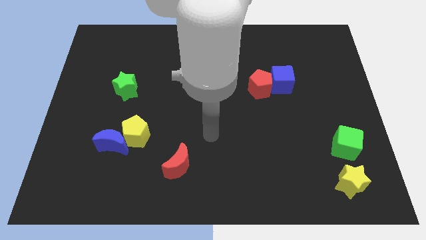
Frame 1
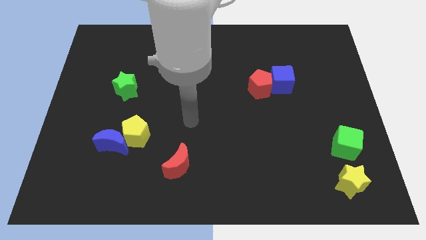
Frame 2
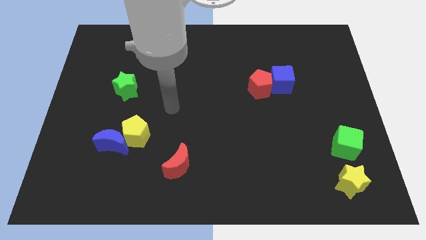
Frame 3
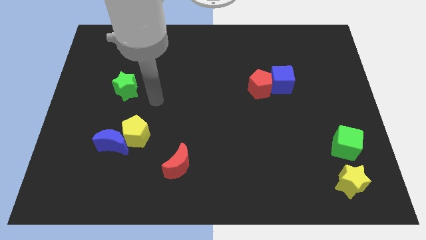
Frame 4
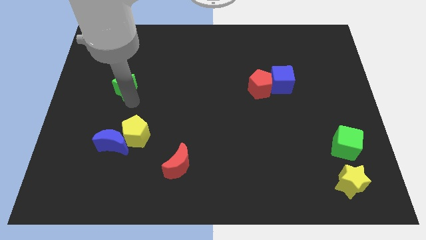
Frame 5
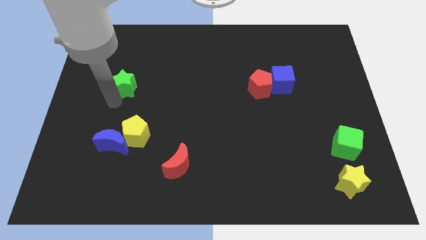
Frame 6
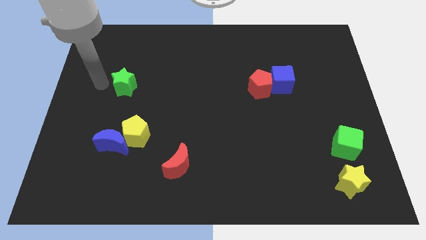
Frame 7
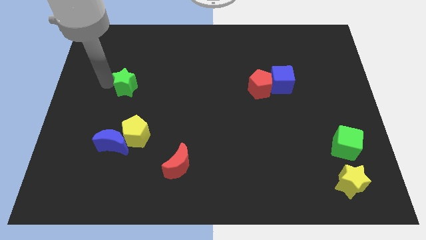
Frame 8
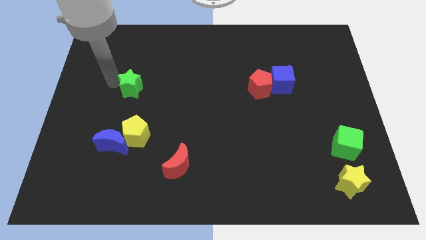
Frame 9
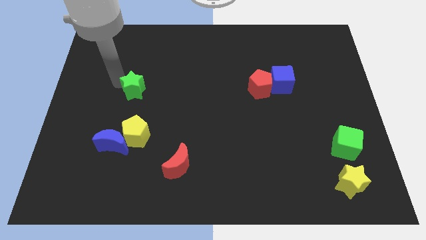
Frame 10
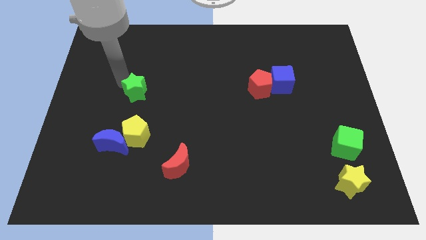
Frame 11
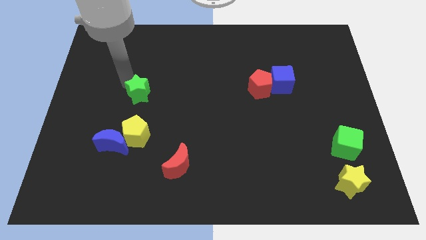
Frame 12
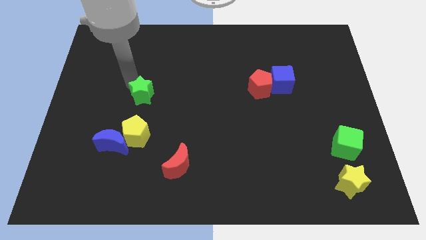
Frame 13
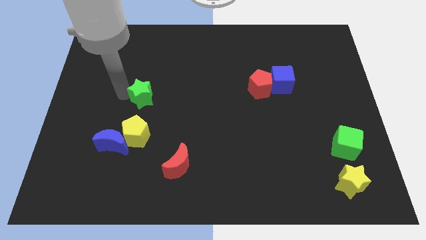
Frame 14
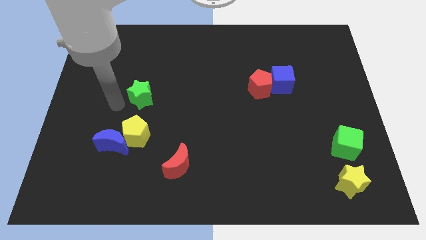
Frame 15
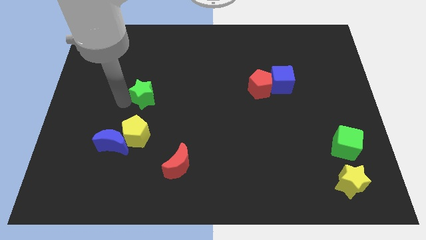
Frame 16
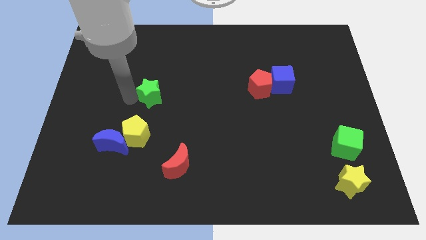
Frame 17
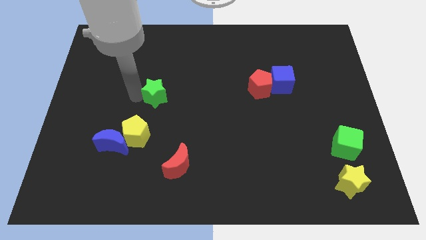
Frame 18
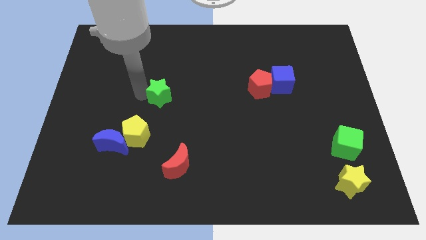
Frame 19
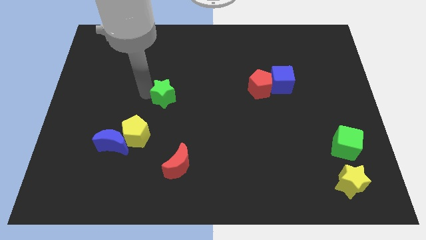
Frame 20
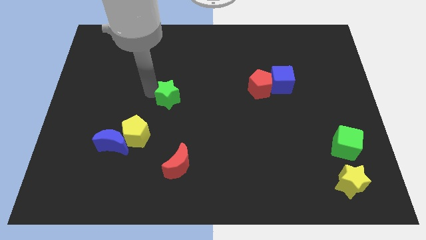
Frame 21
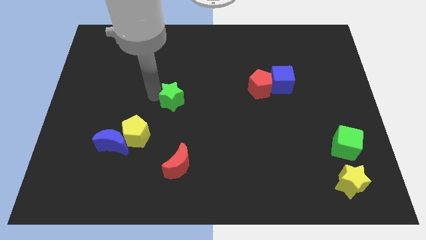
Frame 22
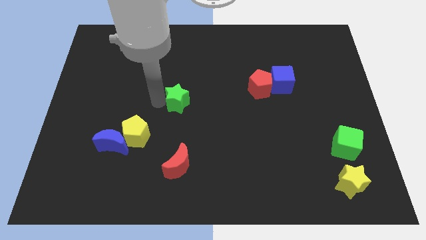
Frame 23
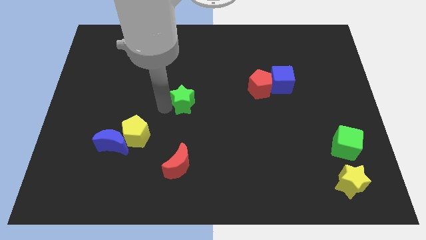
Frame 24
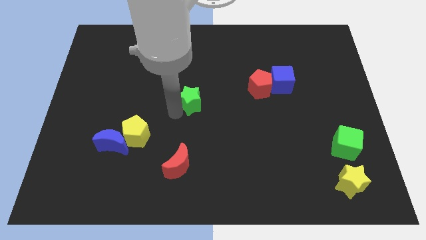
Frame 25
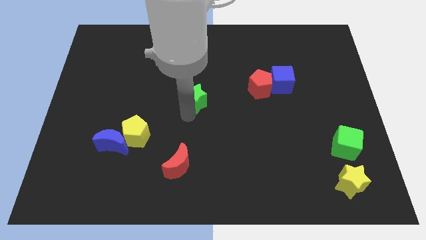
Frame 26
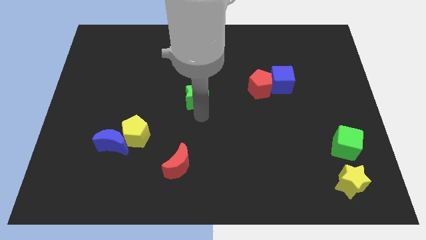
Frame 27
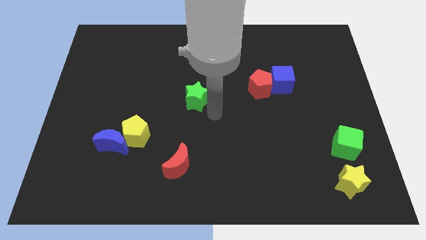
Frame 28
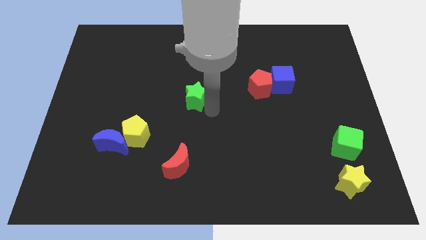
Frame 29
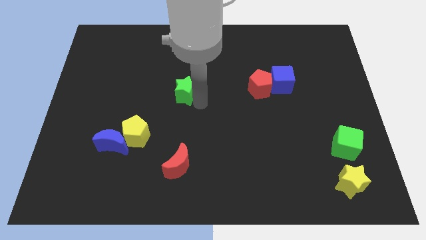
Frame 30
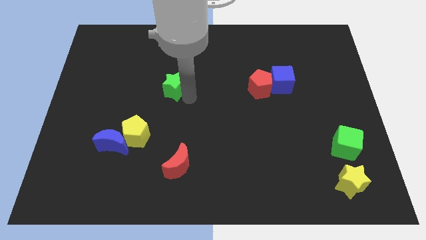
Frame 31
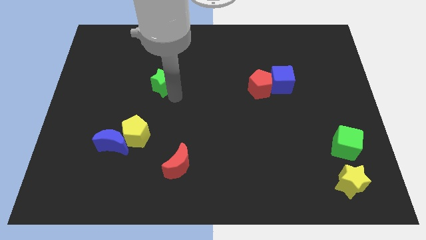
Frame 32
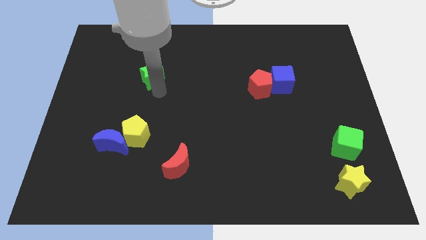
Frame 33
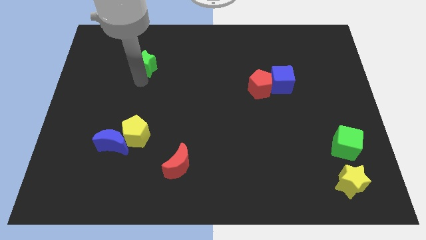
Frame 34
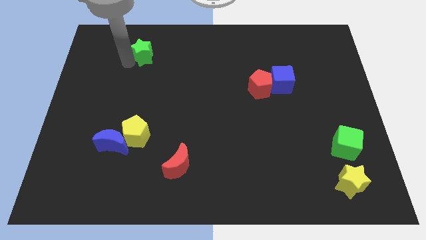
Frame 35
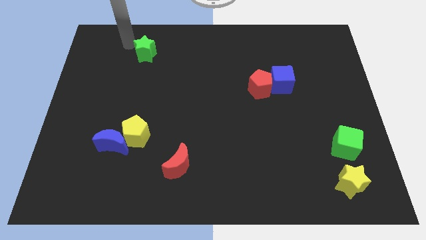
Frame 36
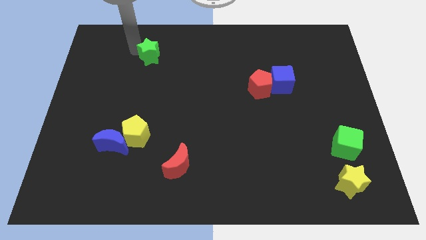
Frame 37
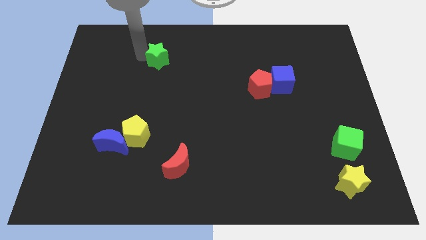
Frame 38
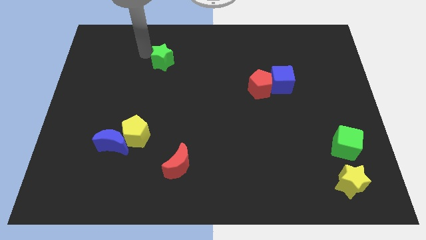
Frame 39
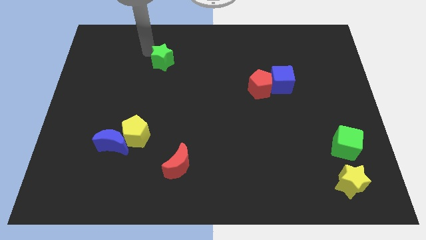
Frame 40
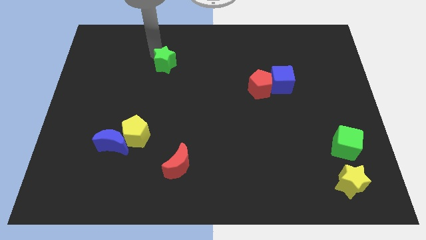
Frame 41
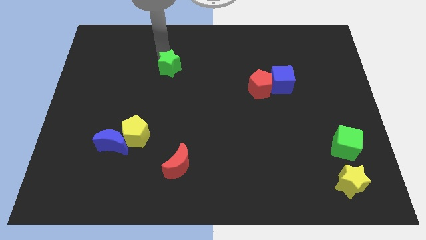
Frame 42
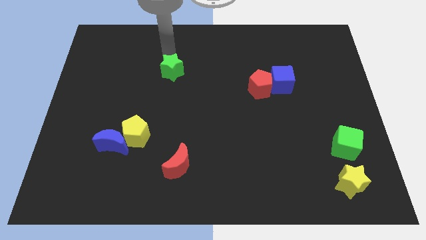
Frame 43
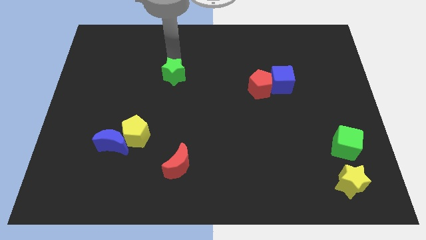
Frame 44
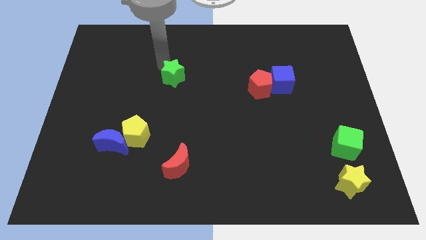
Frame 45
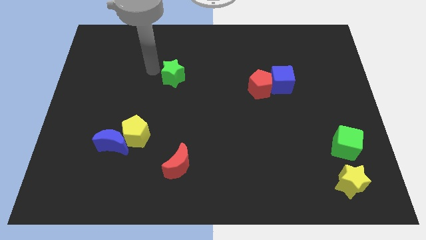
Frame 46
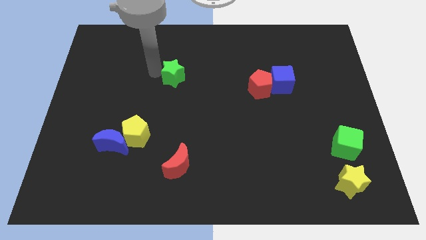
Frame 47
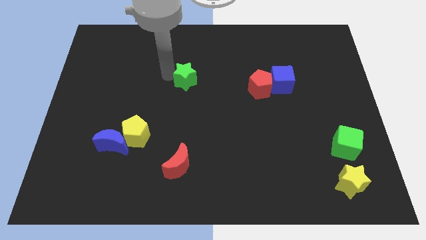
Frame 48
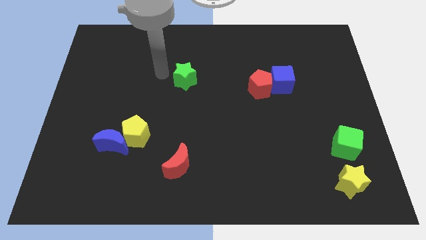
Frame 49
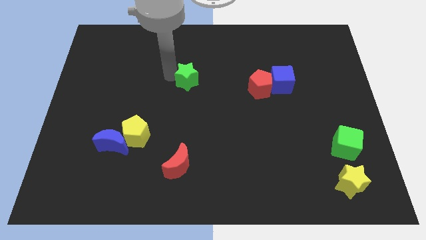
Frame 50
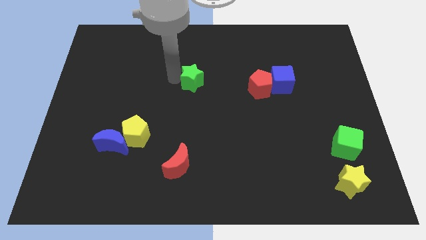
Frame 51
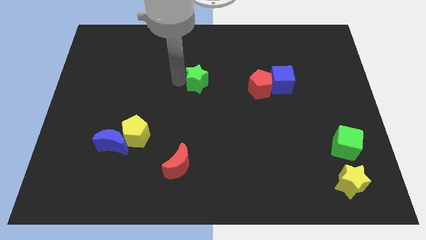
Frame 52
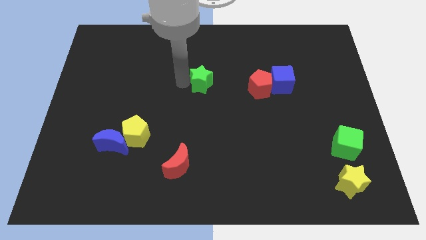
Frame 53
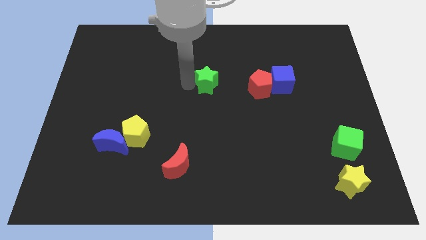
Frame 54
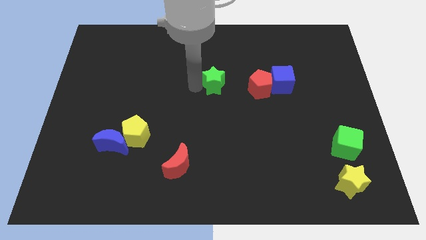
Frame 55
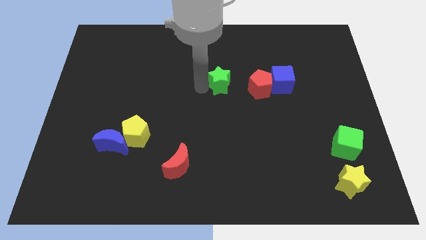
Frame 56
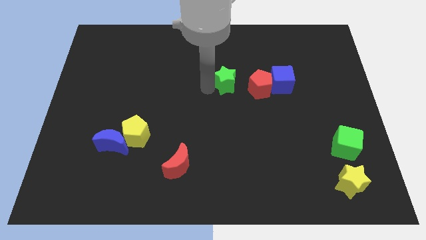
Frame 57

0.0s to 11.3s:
move the green star to the top left side of the red pentagon

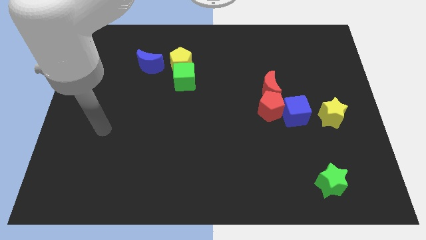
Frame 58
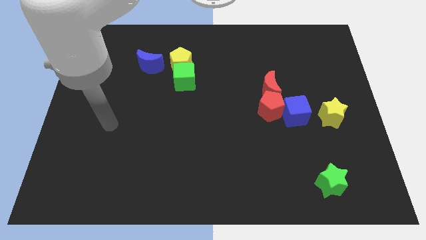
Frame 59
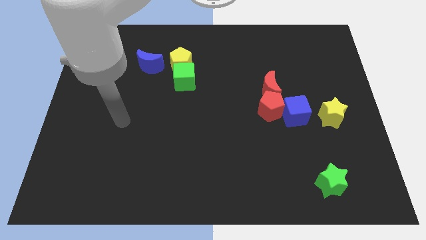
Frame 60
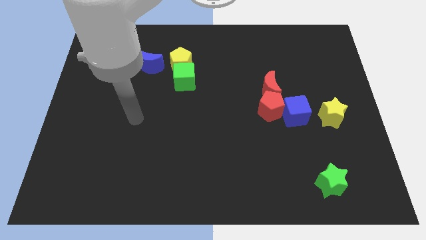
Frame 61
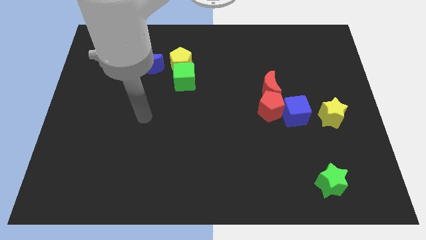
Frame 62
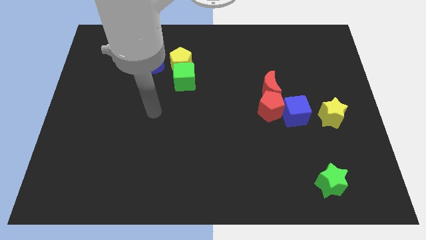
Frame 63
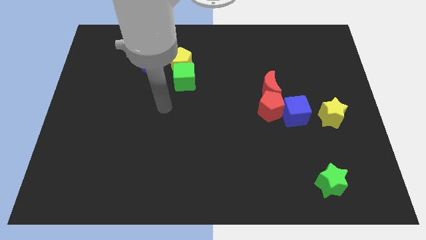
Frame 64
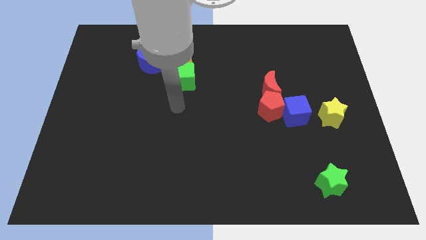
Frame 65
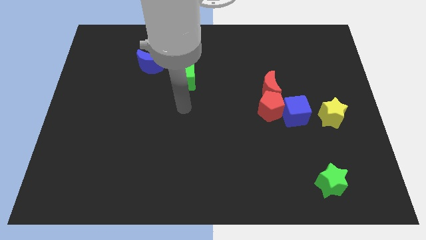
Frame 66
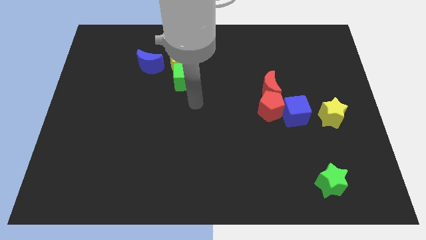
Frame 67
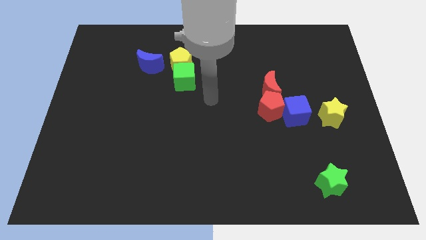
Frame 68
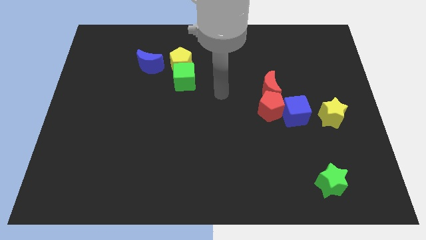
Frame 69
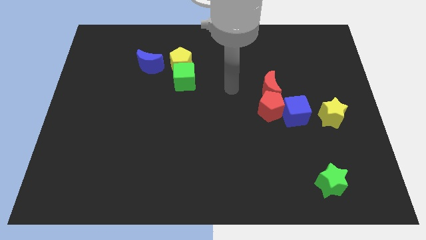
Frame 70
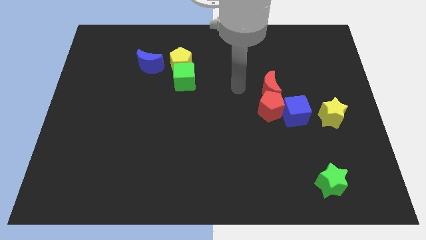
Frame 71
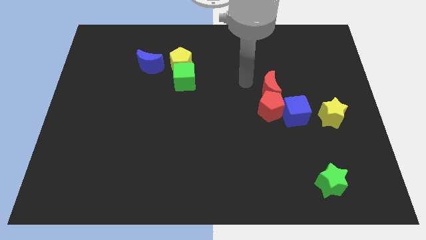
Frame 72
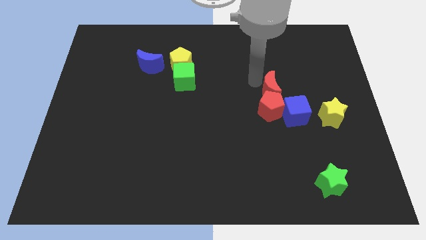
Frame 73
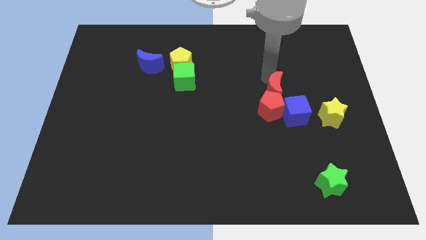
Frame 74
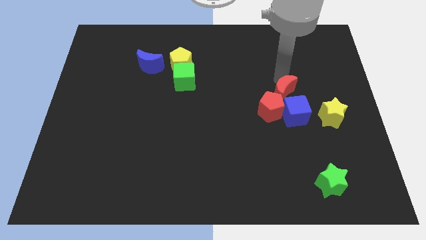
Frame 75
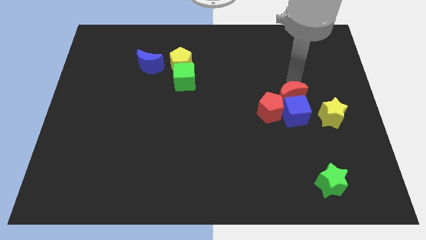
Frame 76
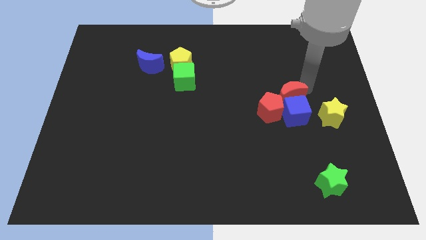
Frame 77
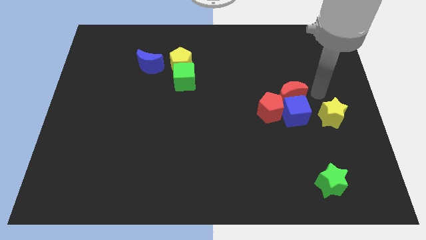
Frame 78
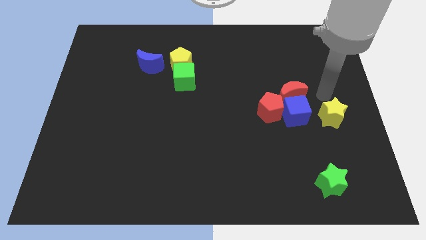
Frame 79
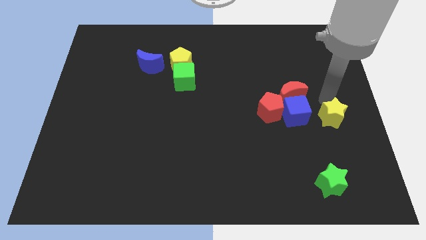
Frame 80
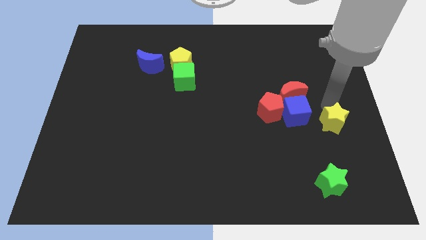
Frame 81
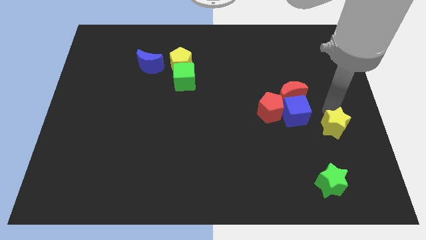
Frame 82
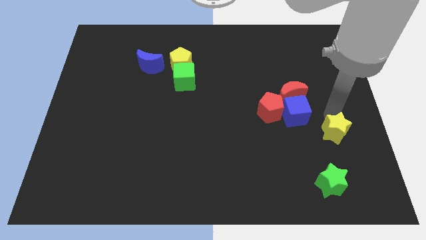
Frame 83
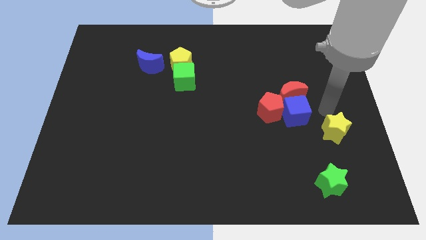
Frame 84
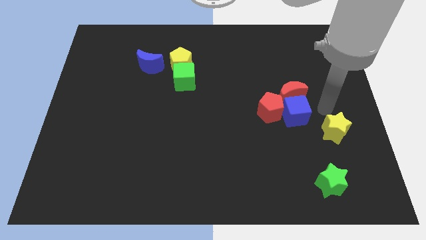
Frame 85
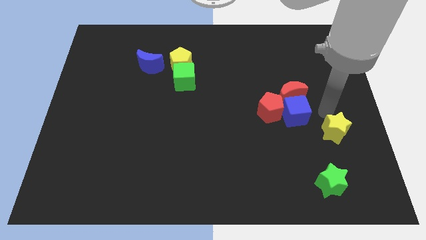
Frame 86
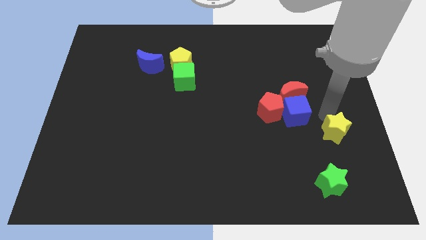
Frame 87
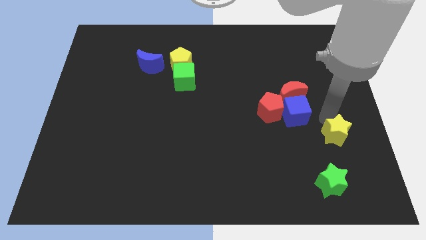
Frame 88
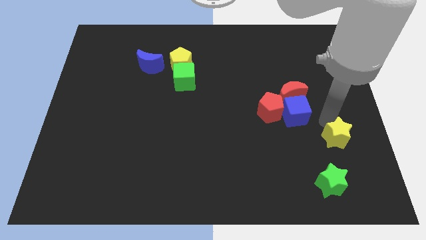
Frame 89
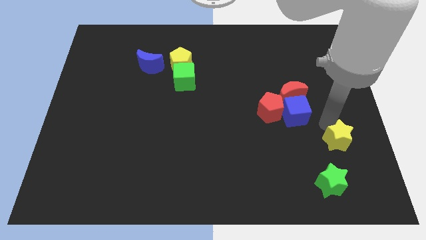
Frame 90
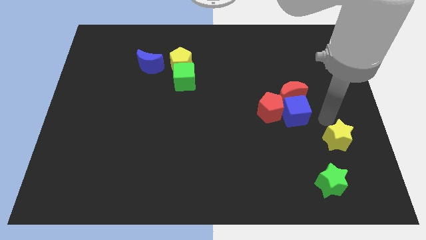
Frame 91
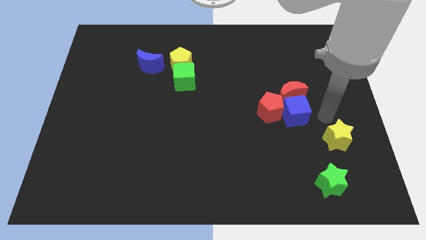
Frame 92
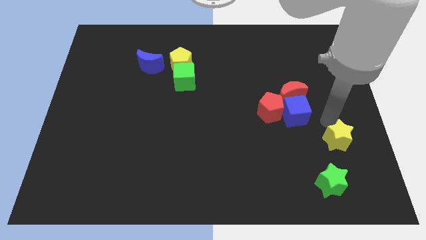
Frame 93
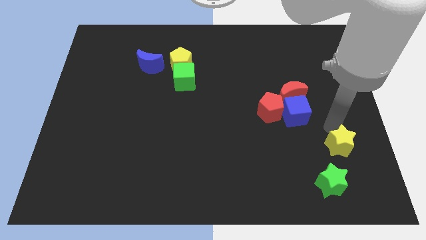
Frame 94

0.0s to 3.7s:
move the yellow star to the top right of the green star
